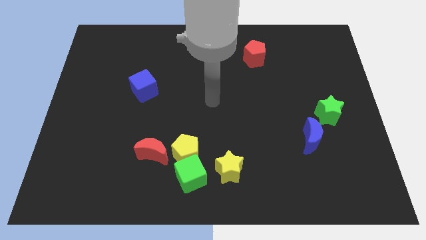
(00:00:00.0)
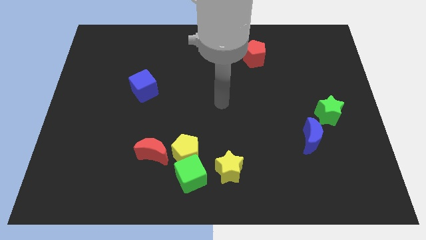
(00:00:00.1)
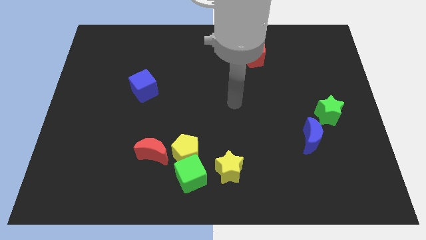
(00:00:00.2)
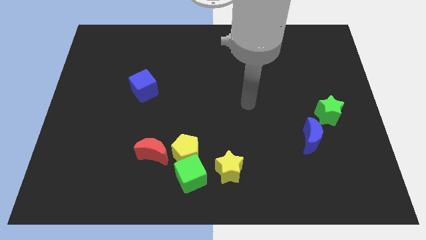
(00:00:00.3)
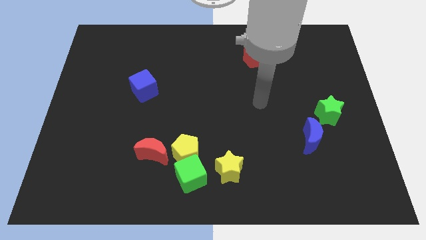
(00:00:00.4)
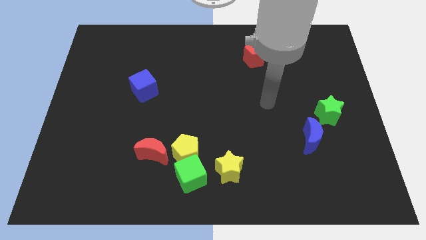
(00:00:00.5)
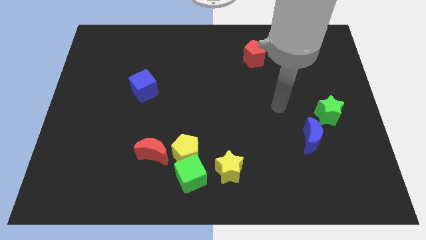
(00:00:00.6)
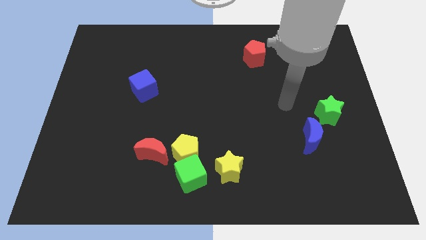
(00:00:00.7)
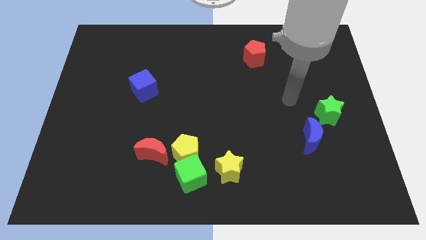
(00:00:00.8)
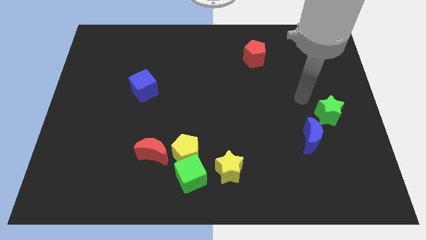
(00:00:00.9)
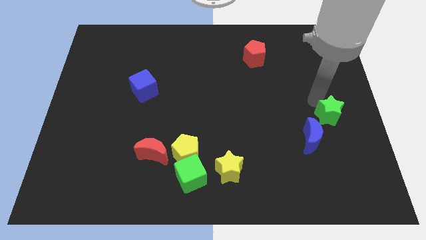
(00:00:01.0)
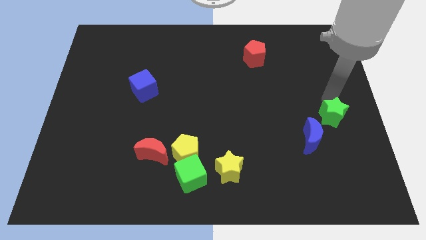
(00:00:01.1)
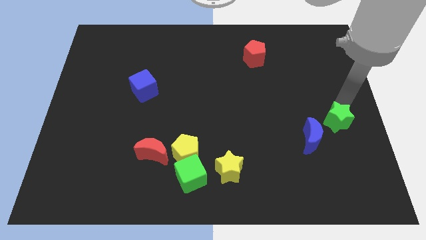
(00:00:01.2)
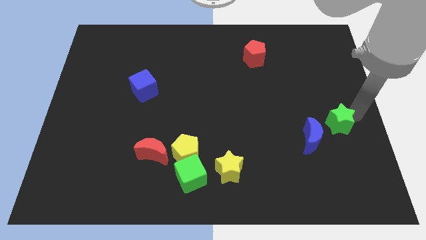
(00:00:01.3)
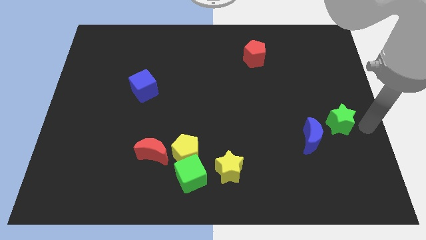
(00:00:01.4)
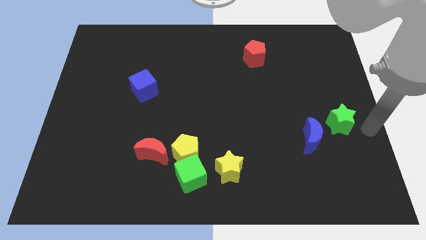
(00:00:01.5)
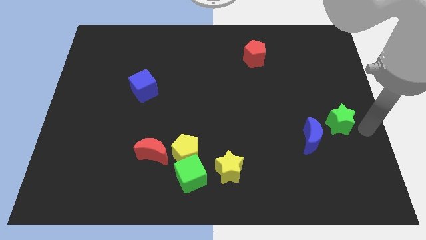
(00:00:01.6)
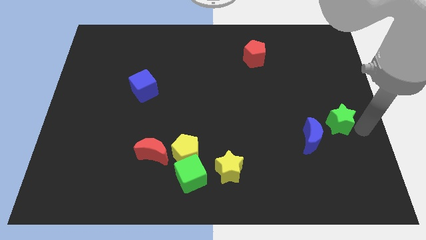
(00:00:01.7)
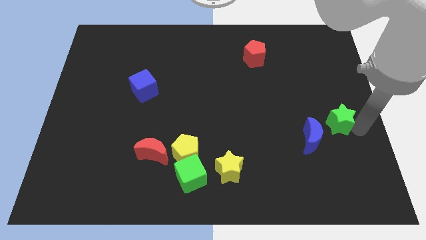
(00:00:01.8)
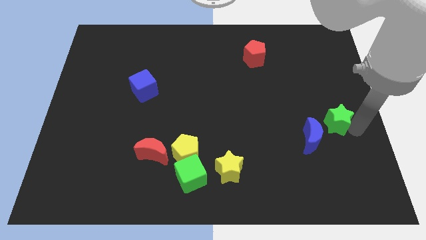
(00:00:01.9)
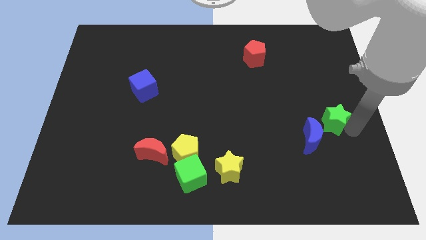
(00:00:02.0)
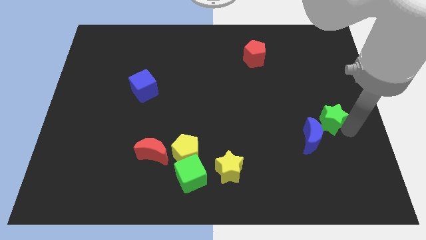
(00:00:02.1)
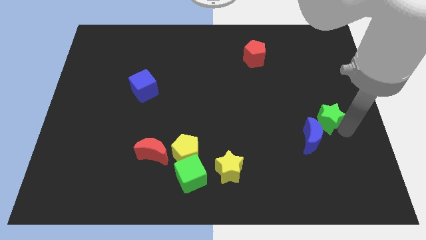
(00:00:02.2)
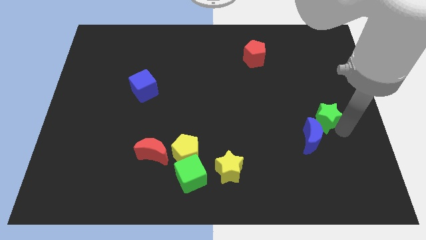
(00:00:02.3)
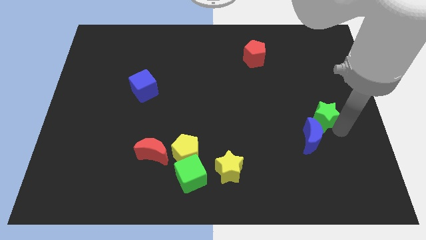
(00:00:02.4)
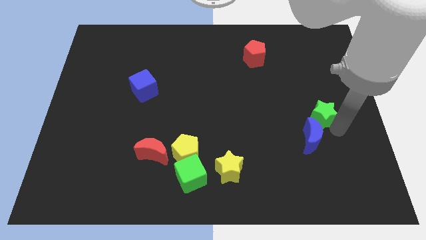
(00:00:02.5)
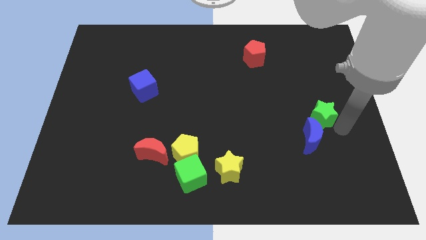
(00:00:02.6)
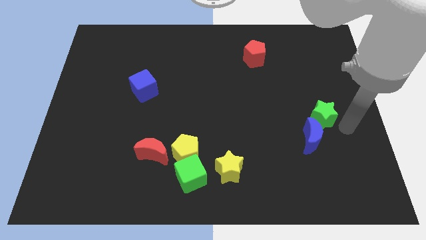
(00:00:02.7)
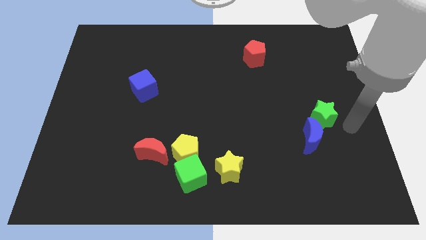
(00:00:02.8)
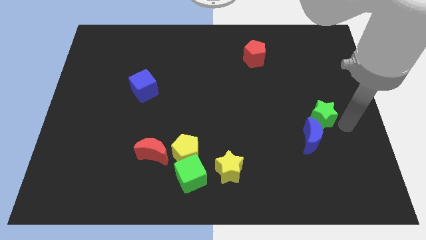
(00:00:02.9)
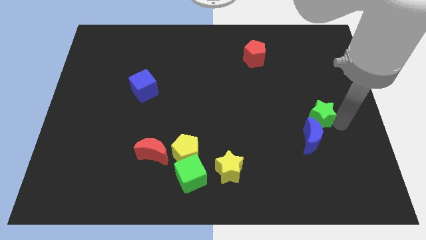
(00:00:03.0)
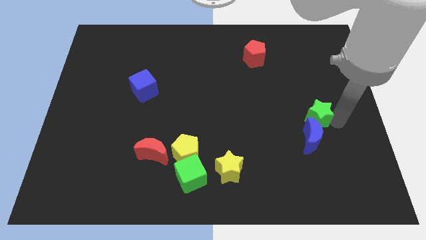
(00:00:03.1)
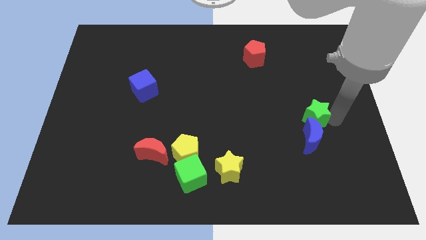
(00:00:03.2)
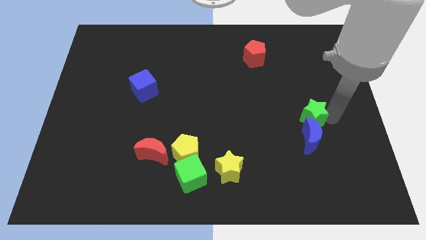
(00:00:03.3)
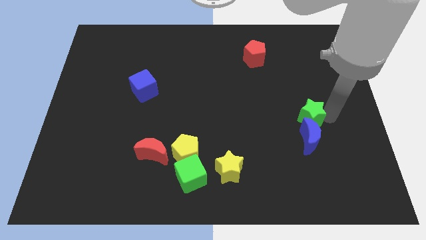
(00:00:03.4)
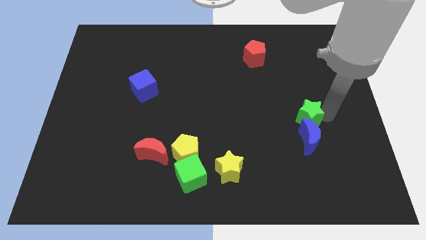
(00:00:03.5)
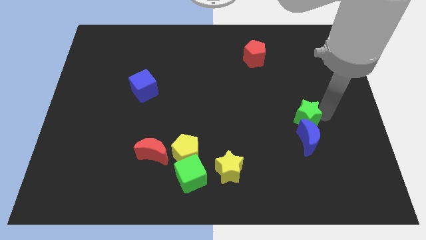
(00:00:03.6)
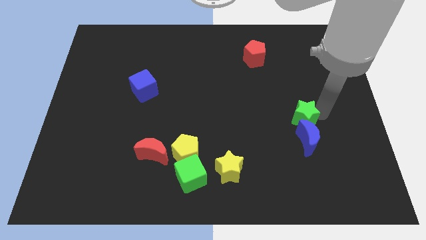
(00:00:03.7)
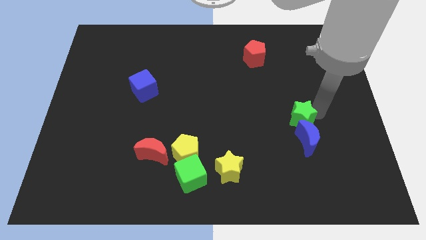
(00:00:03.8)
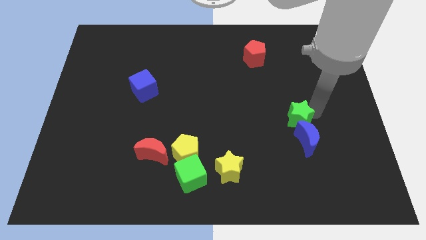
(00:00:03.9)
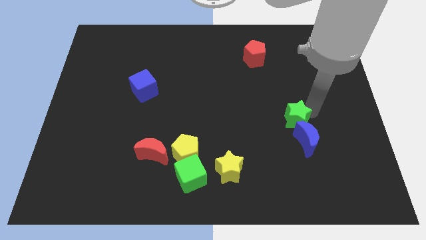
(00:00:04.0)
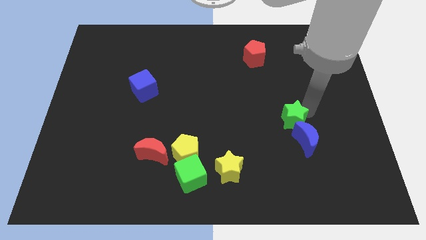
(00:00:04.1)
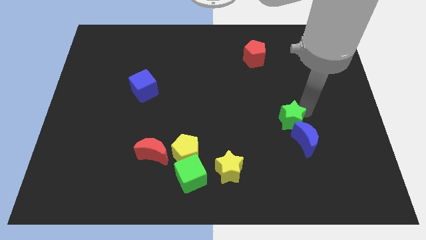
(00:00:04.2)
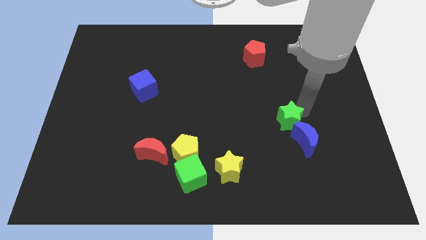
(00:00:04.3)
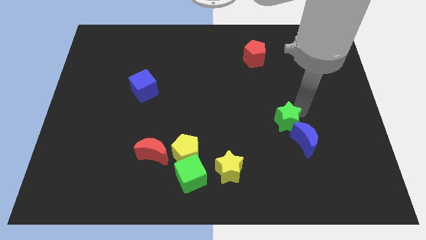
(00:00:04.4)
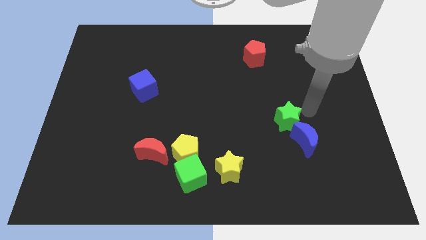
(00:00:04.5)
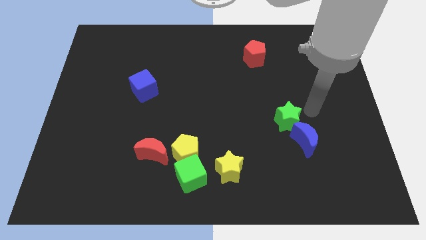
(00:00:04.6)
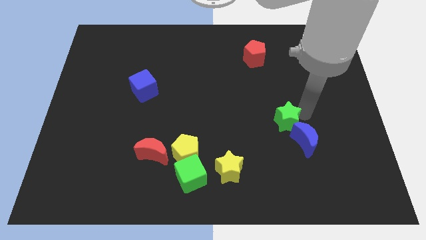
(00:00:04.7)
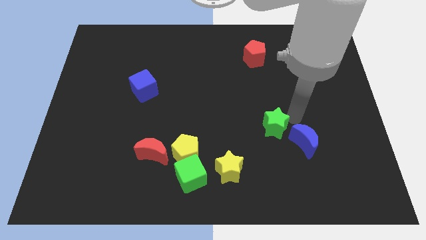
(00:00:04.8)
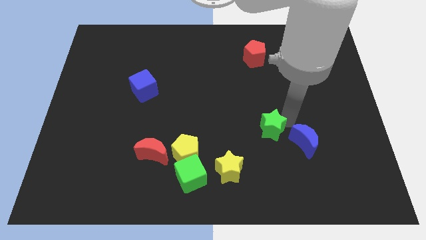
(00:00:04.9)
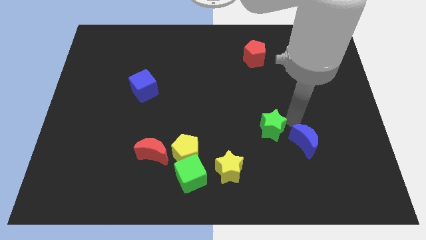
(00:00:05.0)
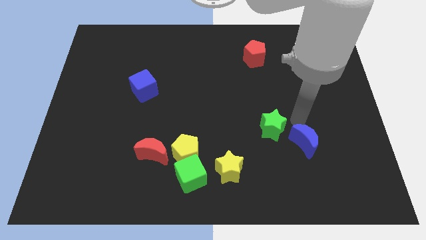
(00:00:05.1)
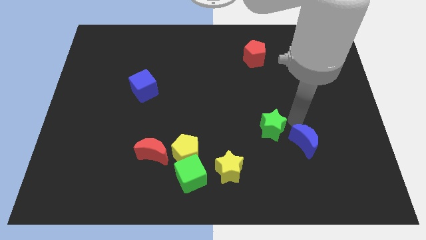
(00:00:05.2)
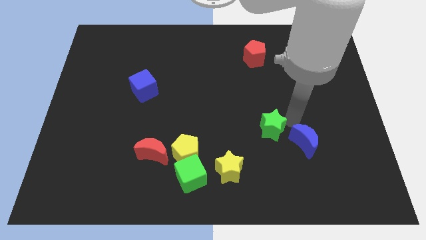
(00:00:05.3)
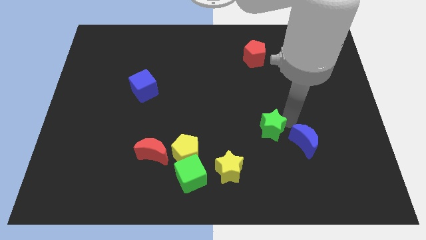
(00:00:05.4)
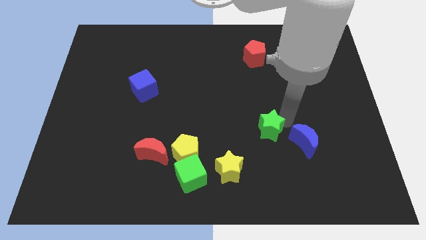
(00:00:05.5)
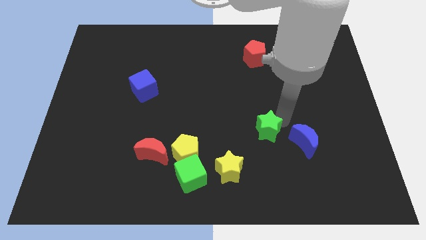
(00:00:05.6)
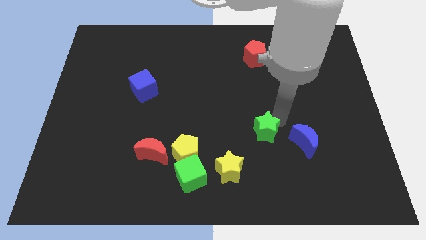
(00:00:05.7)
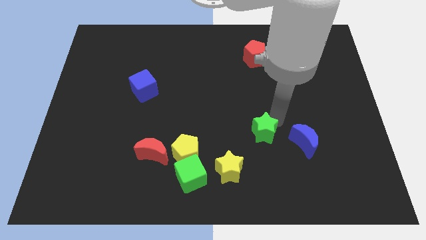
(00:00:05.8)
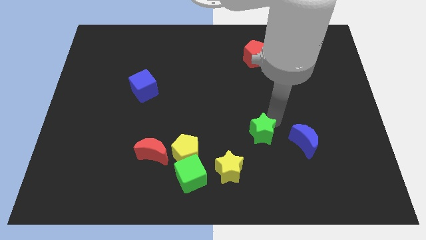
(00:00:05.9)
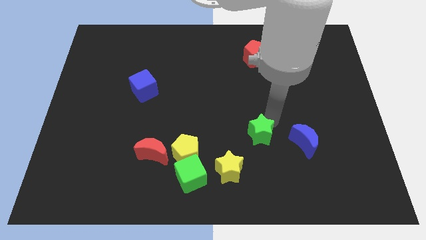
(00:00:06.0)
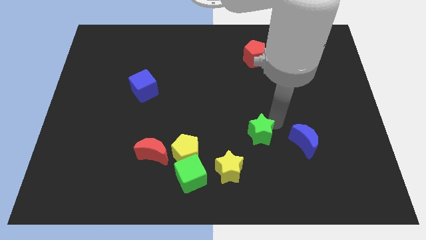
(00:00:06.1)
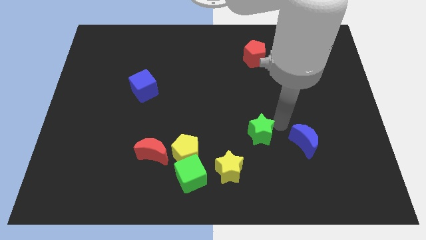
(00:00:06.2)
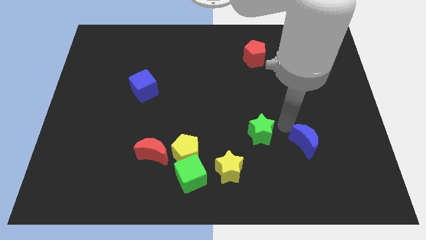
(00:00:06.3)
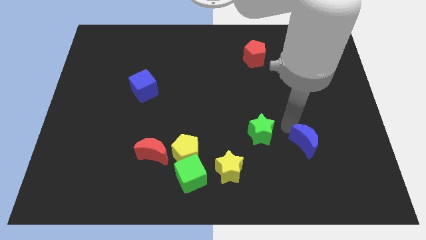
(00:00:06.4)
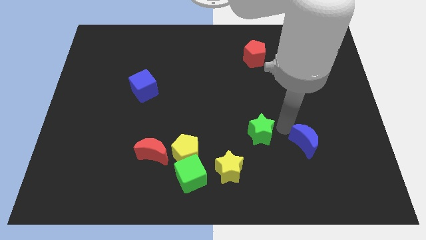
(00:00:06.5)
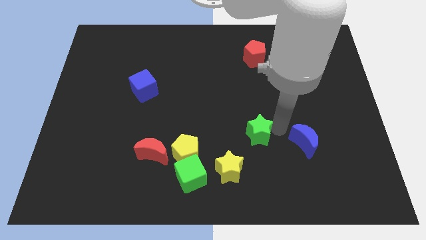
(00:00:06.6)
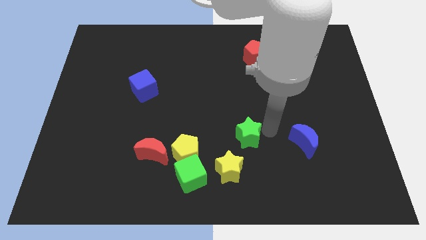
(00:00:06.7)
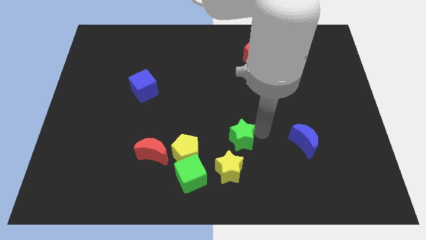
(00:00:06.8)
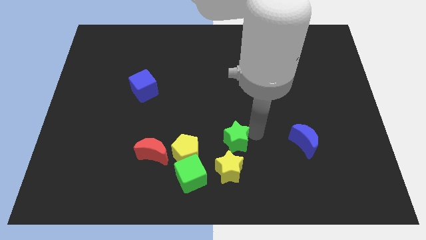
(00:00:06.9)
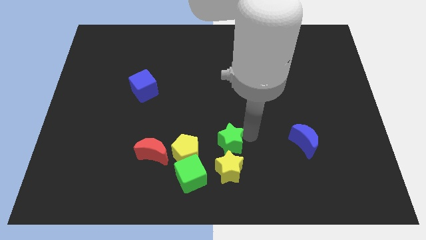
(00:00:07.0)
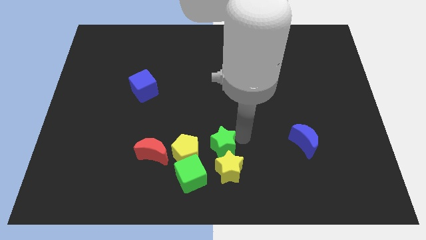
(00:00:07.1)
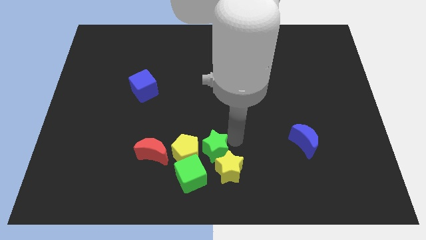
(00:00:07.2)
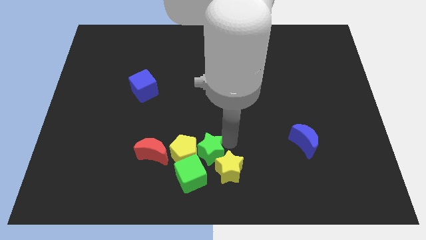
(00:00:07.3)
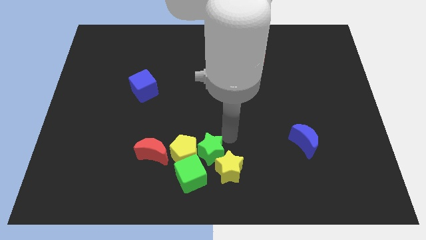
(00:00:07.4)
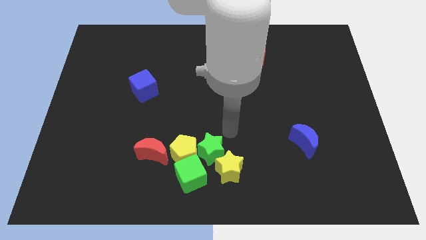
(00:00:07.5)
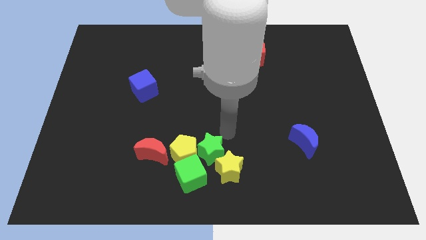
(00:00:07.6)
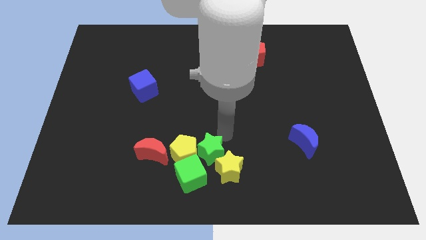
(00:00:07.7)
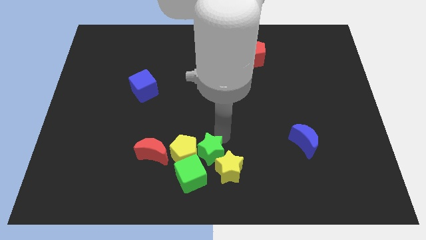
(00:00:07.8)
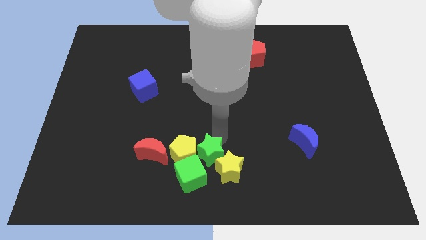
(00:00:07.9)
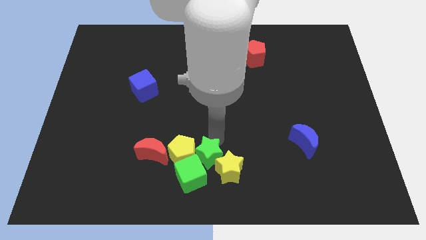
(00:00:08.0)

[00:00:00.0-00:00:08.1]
move the green star close to the green cube
